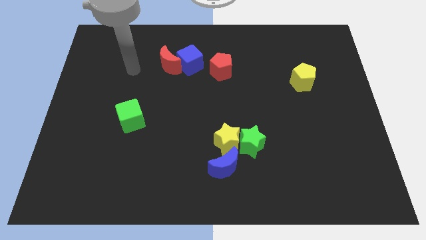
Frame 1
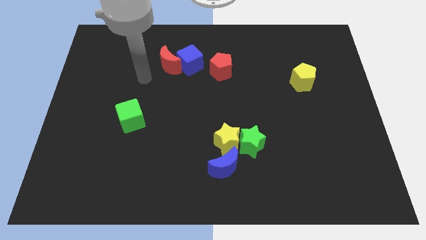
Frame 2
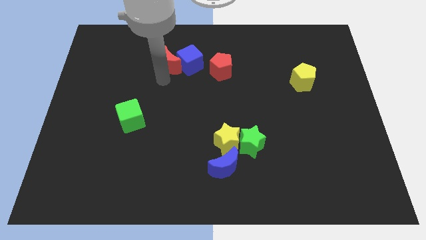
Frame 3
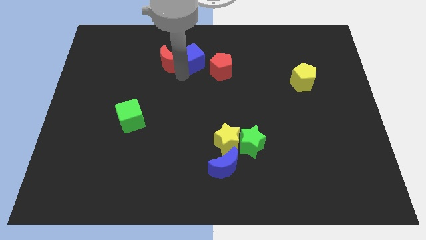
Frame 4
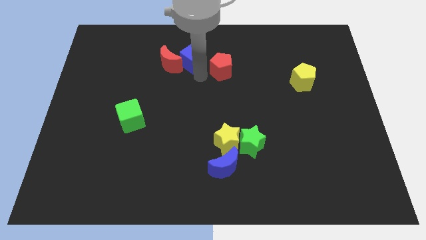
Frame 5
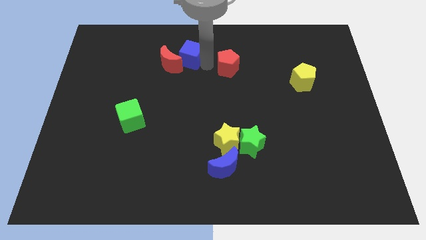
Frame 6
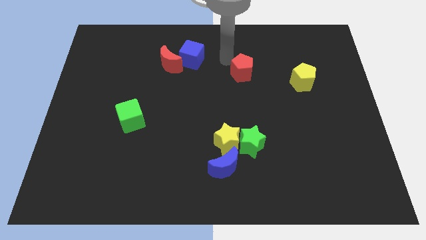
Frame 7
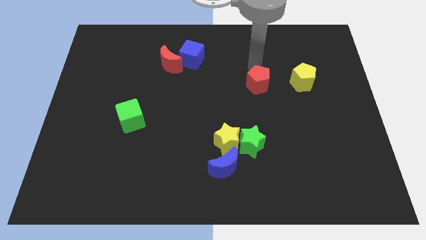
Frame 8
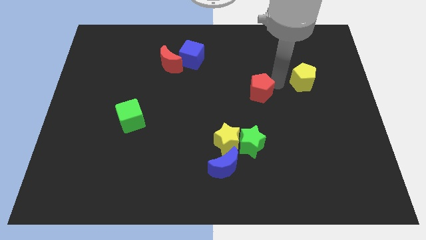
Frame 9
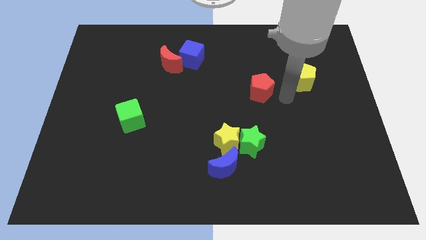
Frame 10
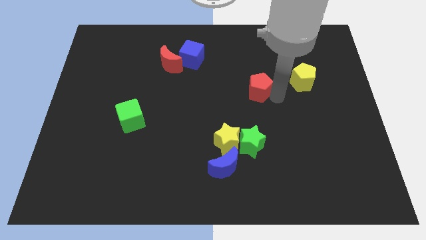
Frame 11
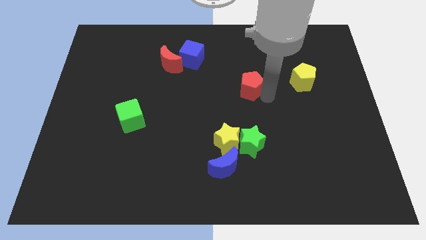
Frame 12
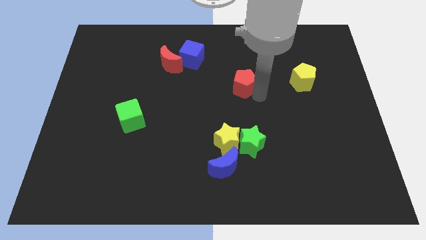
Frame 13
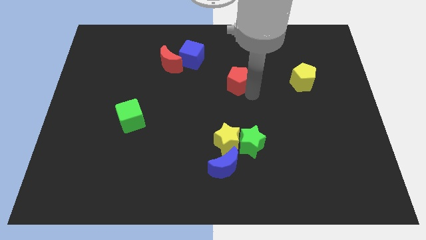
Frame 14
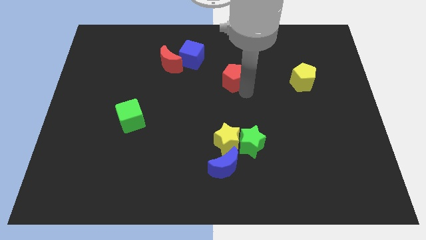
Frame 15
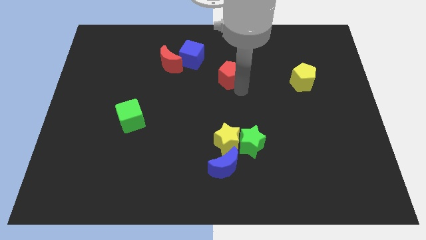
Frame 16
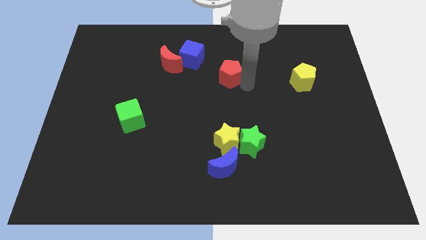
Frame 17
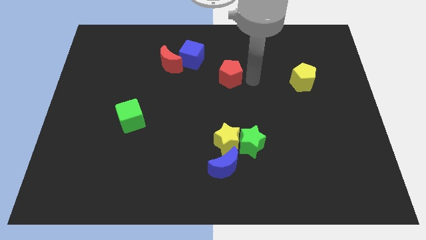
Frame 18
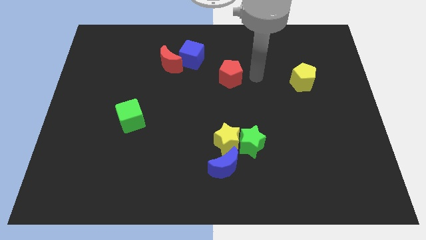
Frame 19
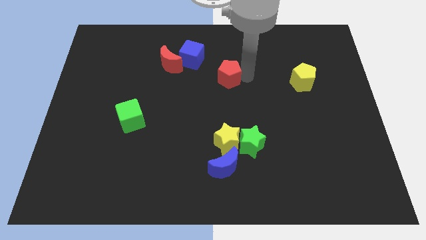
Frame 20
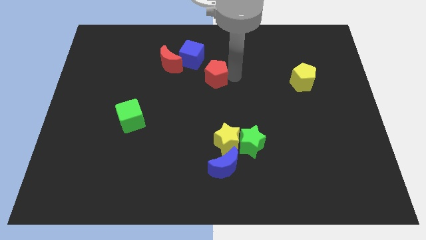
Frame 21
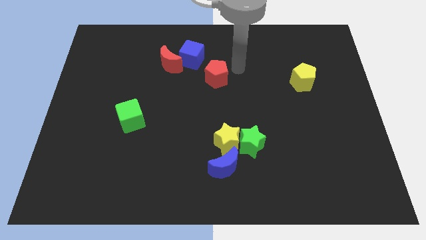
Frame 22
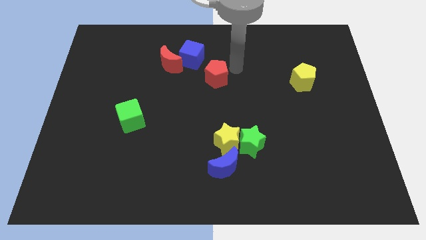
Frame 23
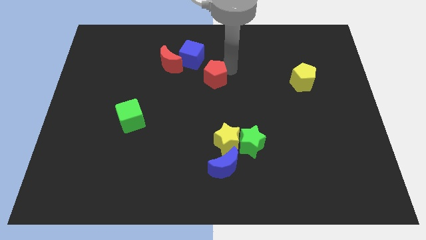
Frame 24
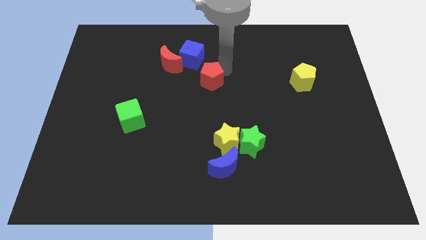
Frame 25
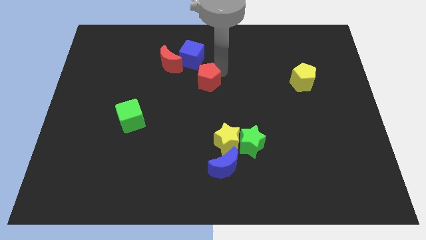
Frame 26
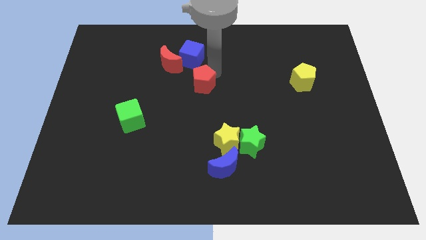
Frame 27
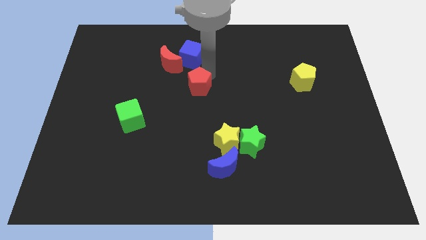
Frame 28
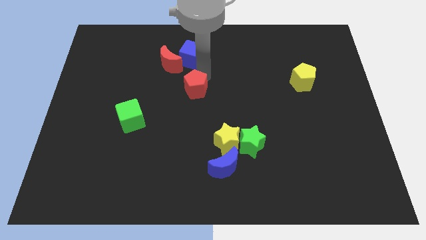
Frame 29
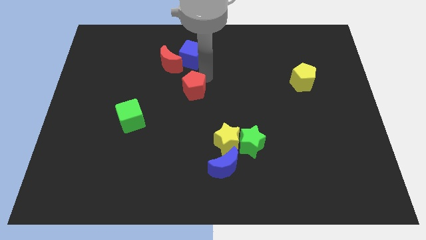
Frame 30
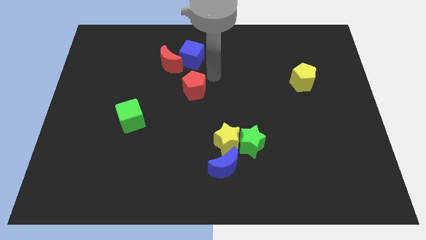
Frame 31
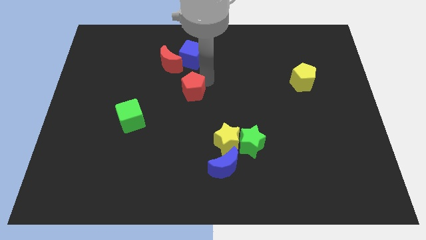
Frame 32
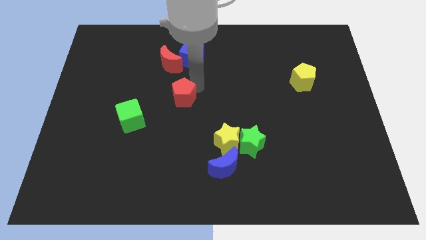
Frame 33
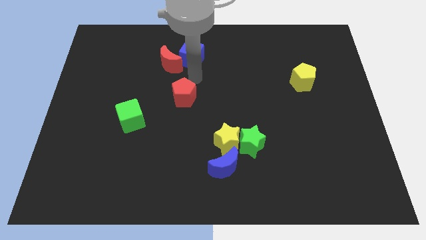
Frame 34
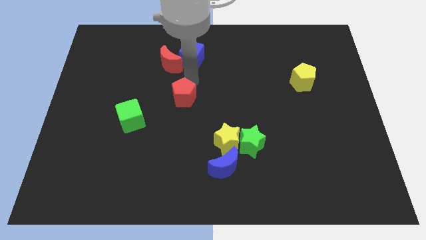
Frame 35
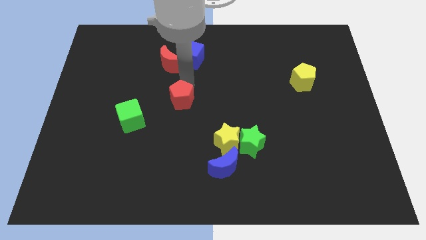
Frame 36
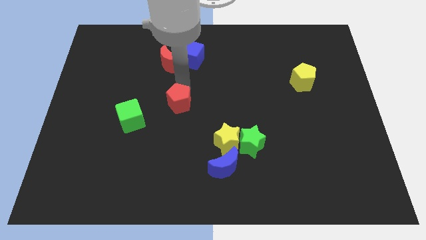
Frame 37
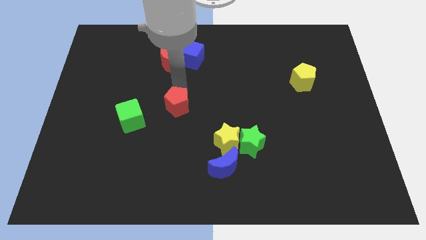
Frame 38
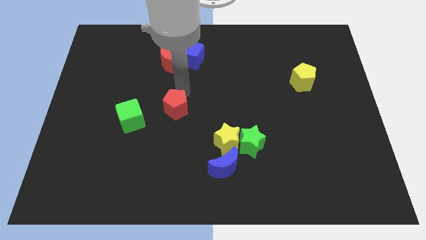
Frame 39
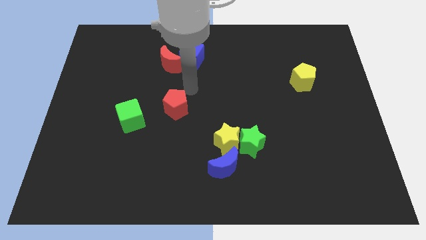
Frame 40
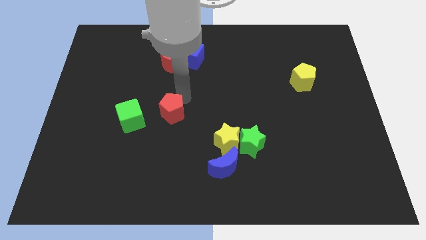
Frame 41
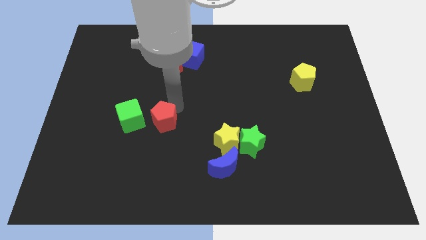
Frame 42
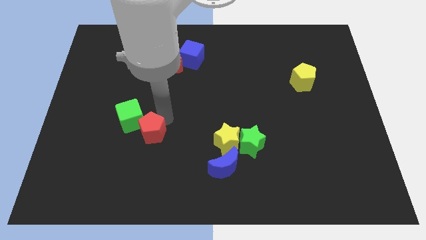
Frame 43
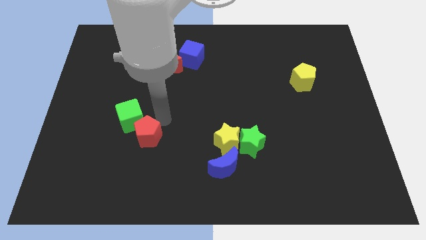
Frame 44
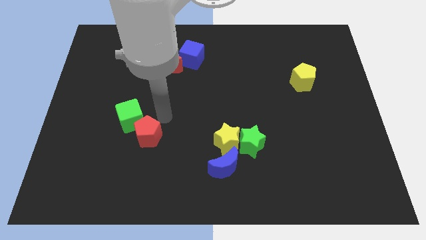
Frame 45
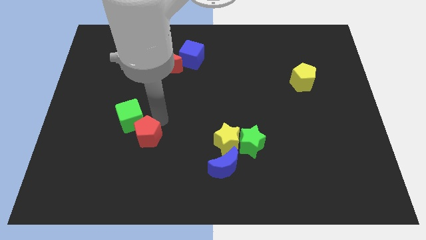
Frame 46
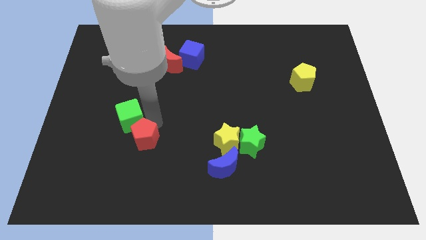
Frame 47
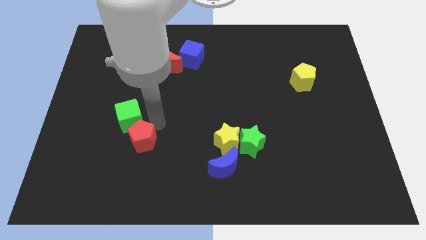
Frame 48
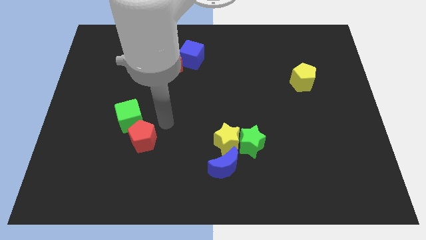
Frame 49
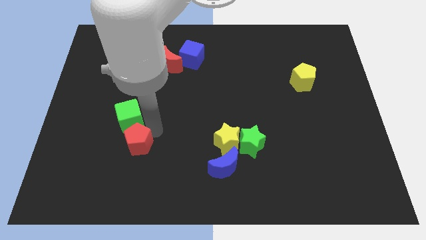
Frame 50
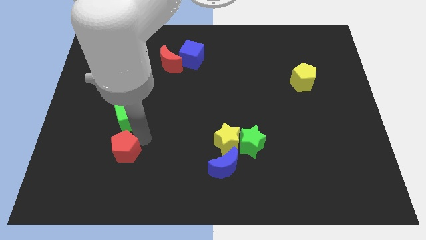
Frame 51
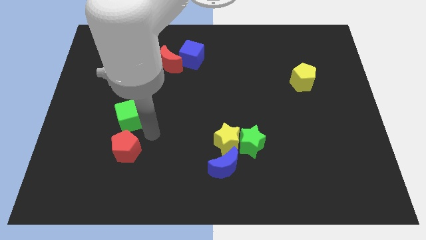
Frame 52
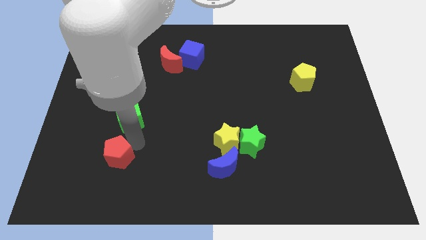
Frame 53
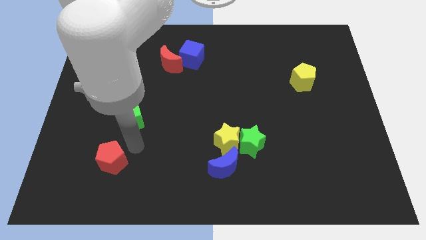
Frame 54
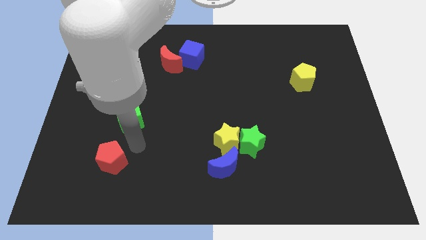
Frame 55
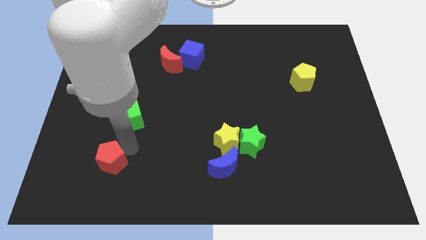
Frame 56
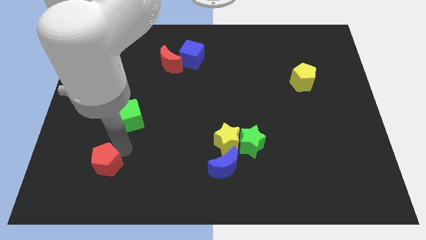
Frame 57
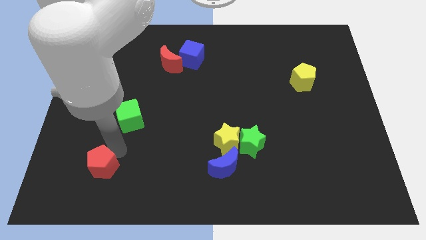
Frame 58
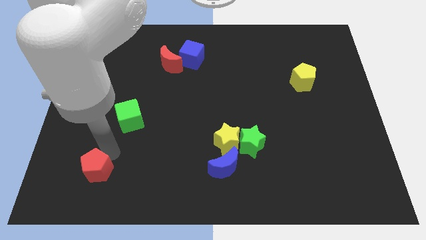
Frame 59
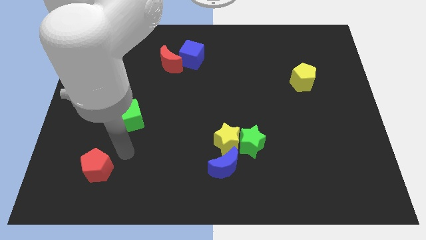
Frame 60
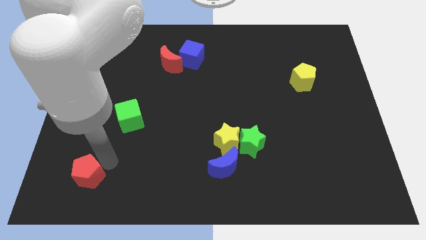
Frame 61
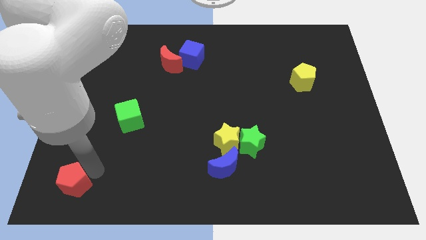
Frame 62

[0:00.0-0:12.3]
move the red pentagon to the lower left corner
